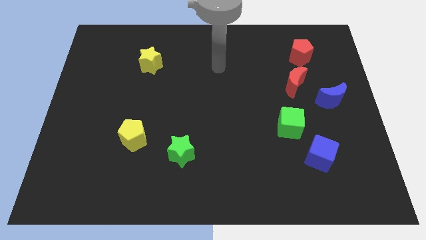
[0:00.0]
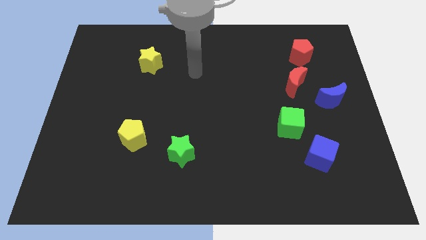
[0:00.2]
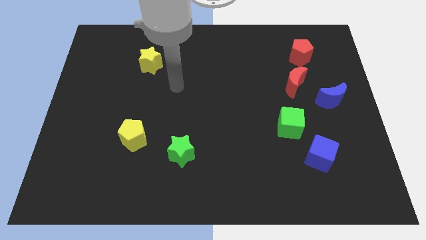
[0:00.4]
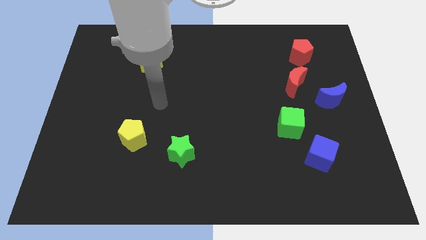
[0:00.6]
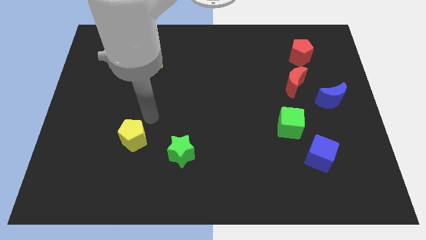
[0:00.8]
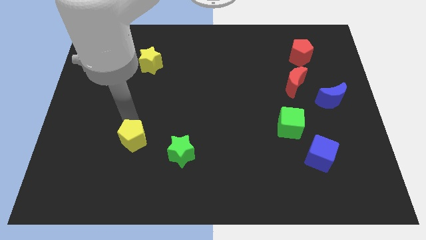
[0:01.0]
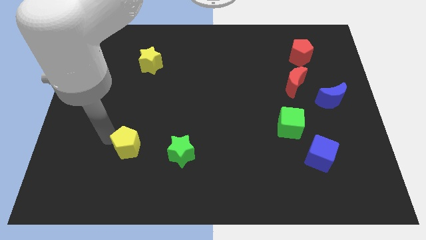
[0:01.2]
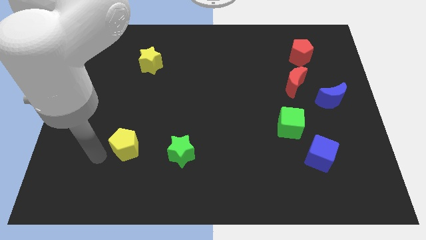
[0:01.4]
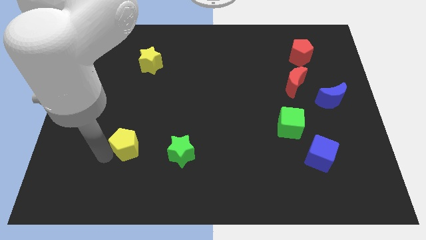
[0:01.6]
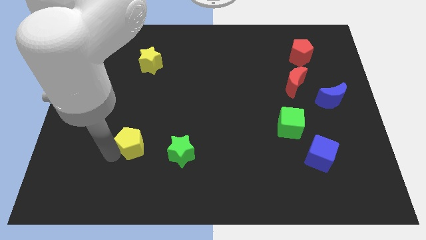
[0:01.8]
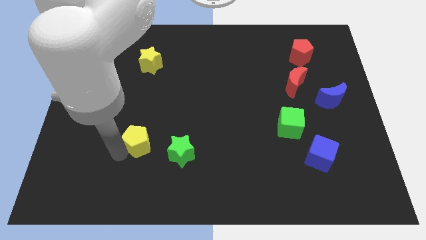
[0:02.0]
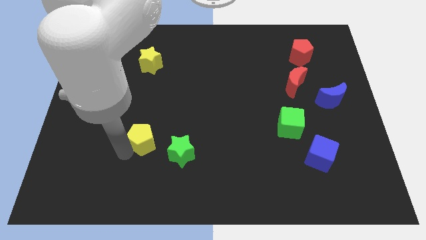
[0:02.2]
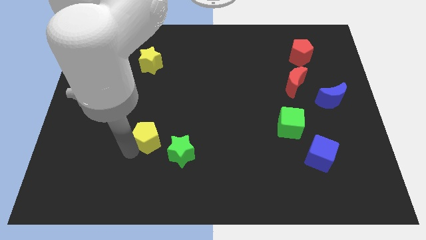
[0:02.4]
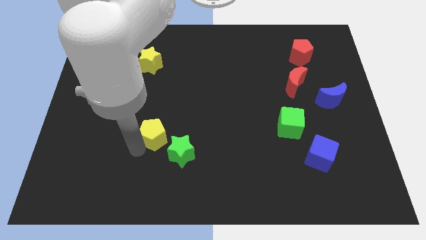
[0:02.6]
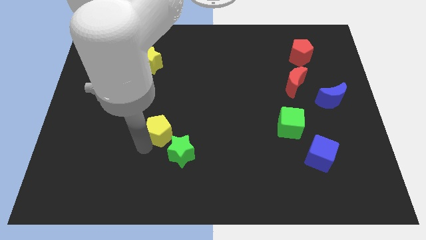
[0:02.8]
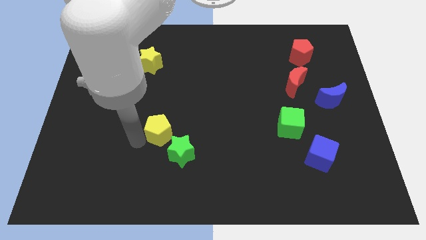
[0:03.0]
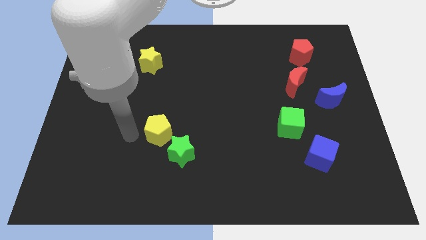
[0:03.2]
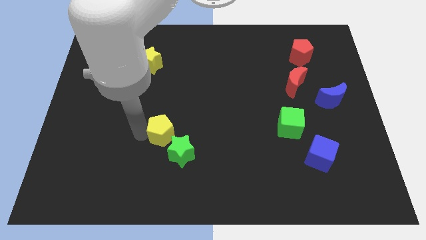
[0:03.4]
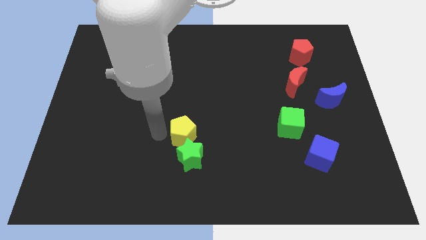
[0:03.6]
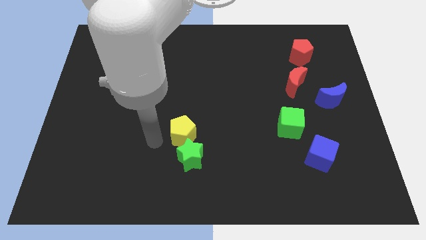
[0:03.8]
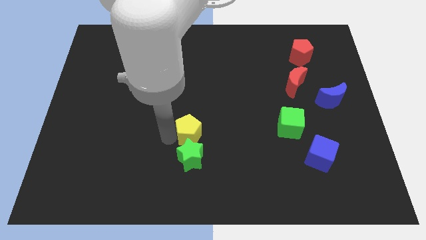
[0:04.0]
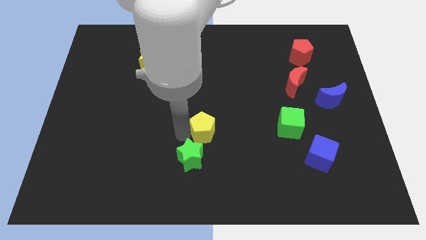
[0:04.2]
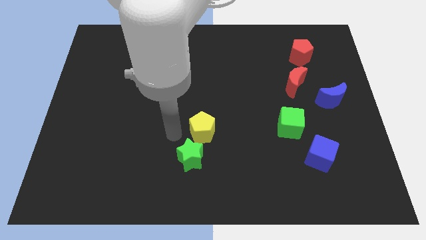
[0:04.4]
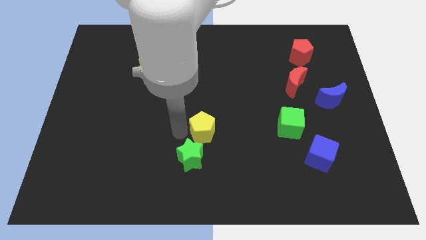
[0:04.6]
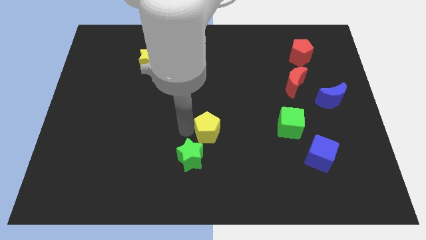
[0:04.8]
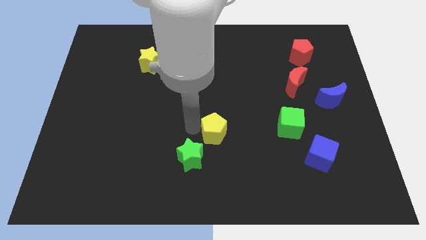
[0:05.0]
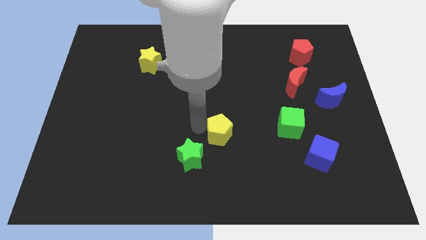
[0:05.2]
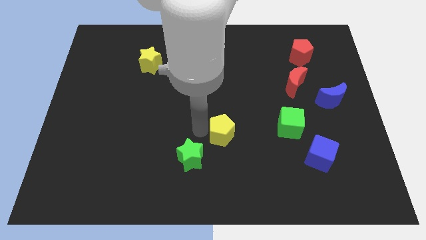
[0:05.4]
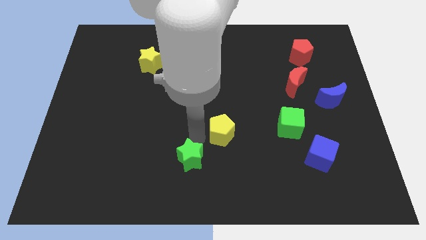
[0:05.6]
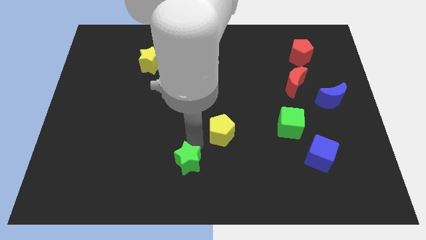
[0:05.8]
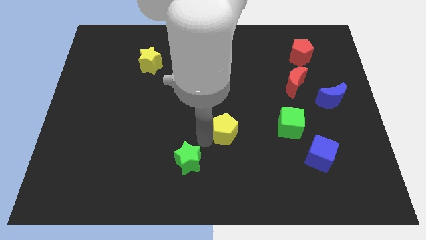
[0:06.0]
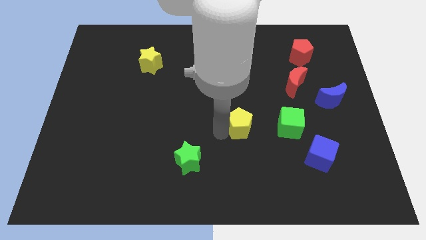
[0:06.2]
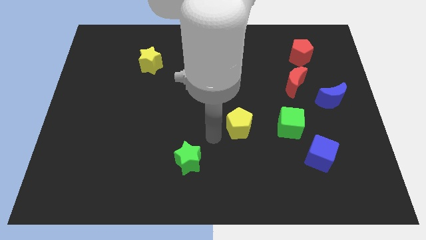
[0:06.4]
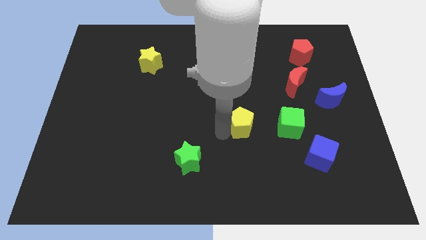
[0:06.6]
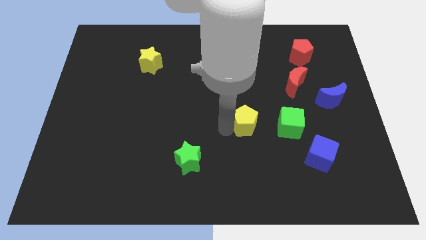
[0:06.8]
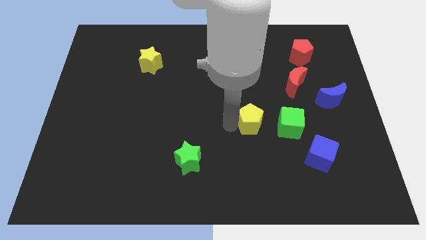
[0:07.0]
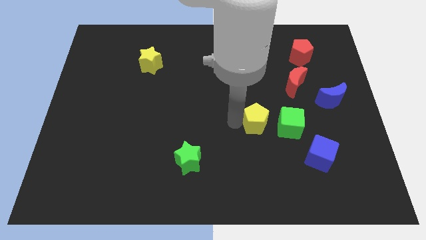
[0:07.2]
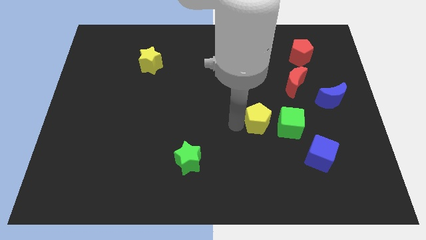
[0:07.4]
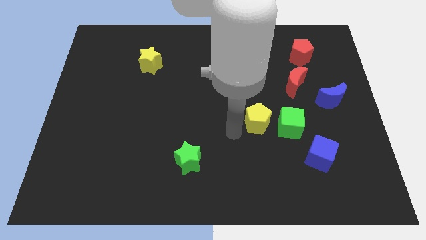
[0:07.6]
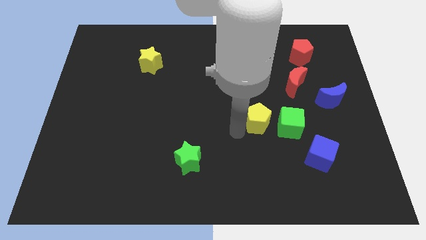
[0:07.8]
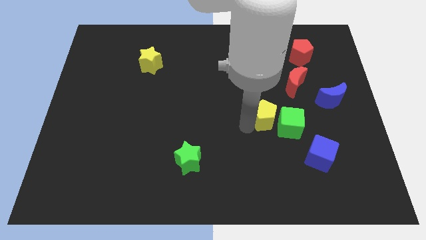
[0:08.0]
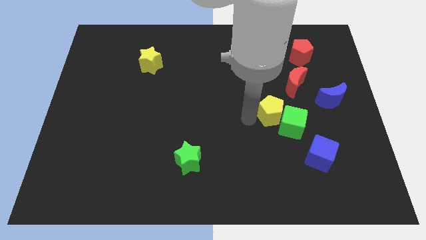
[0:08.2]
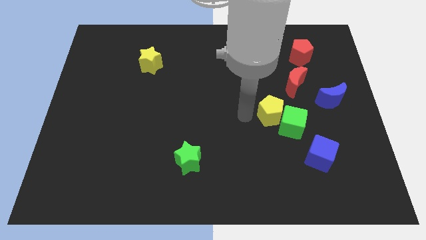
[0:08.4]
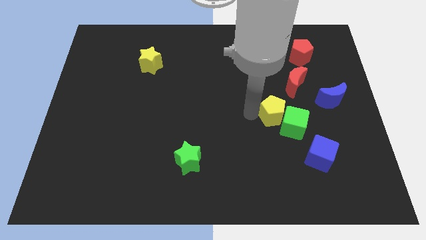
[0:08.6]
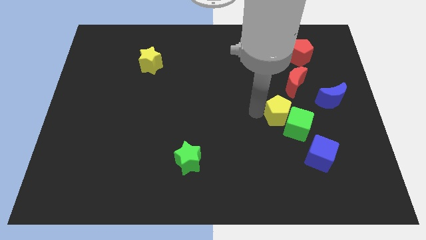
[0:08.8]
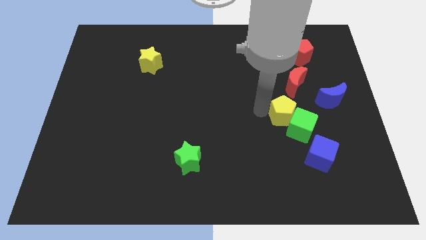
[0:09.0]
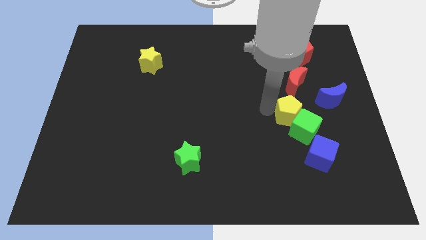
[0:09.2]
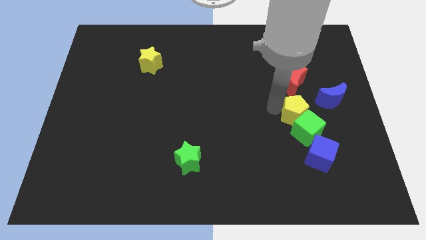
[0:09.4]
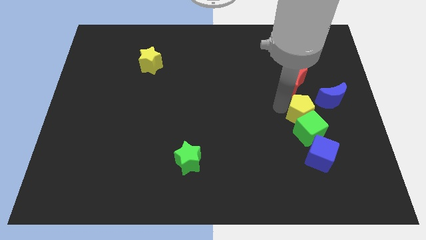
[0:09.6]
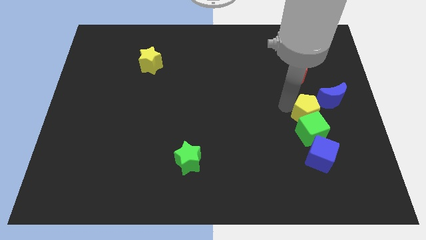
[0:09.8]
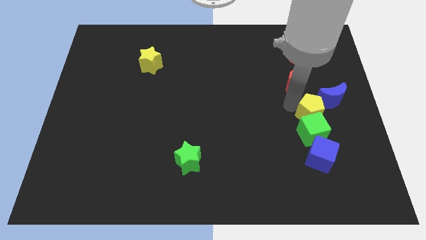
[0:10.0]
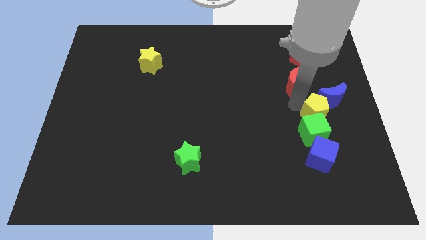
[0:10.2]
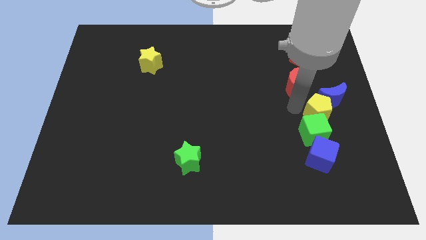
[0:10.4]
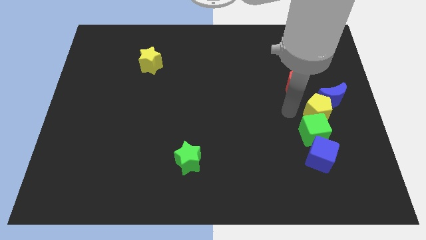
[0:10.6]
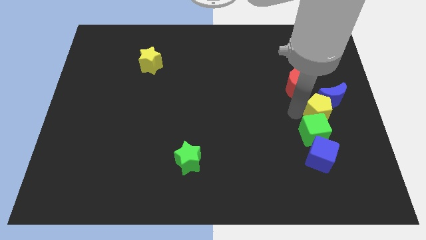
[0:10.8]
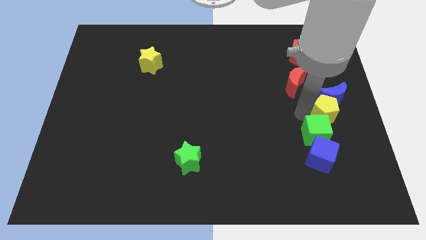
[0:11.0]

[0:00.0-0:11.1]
slide the yellow pentagon to the right side of the board
